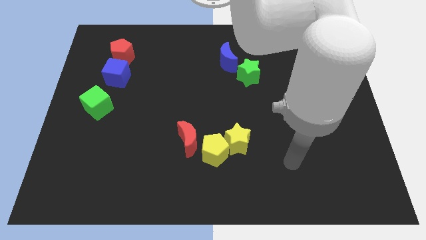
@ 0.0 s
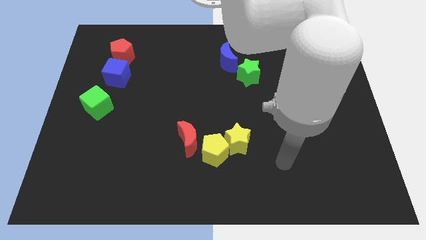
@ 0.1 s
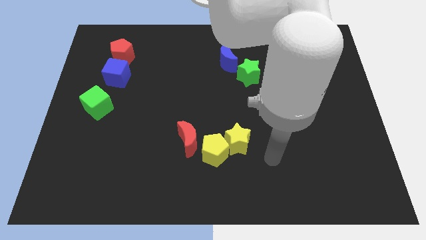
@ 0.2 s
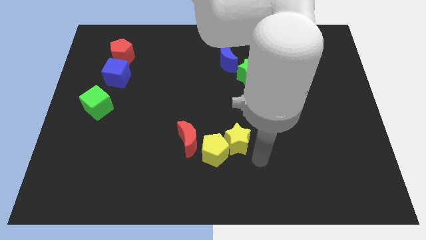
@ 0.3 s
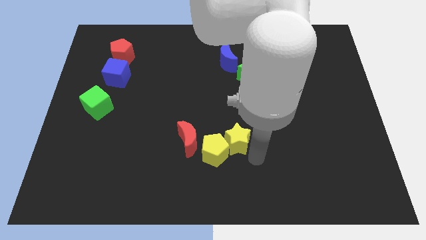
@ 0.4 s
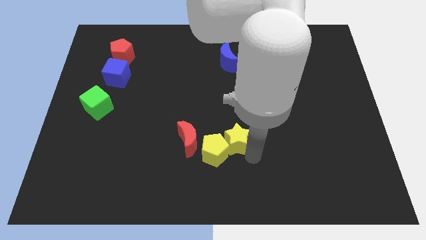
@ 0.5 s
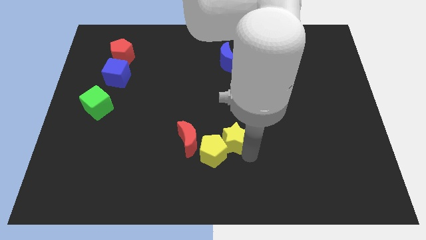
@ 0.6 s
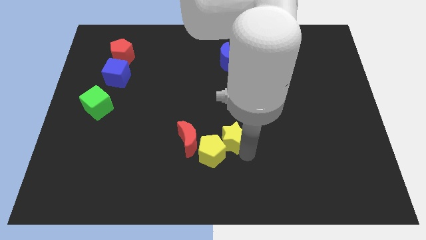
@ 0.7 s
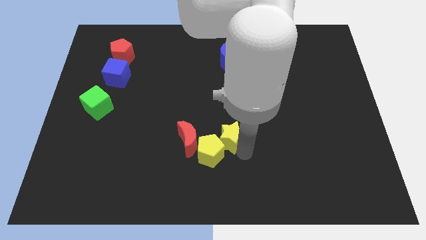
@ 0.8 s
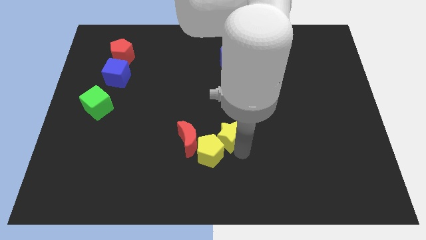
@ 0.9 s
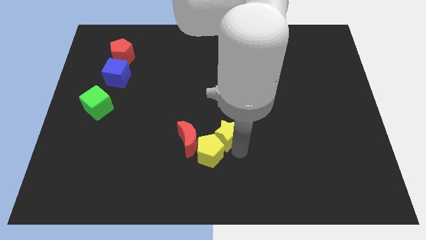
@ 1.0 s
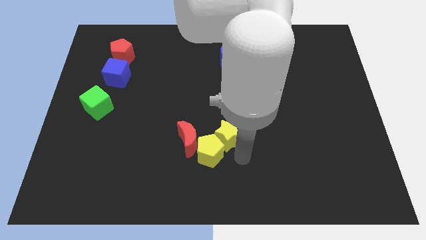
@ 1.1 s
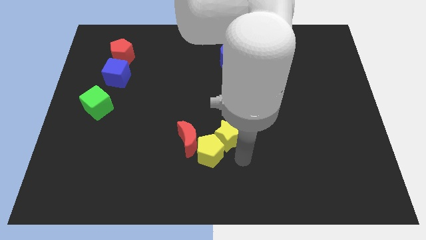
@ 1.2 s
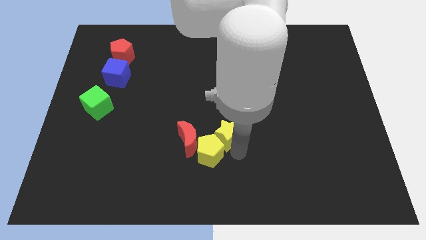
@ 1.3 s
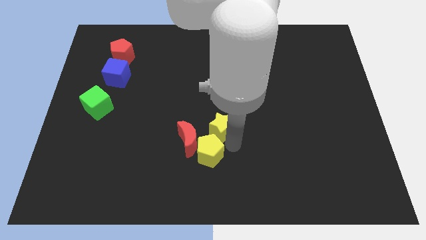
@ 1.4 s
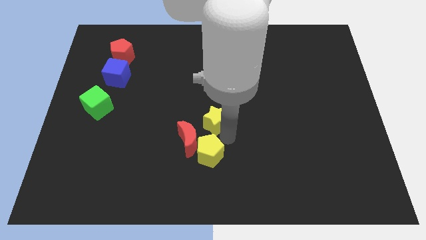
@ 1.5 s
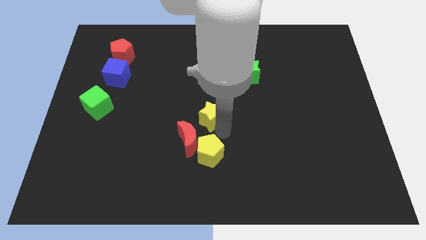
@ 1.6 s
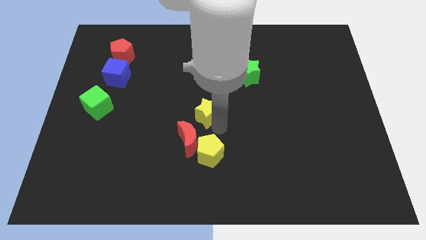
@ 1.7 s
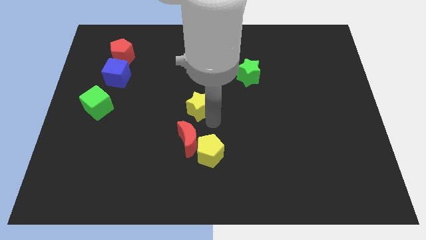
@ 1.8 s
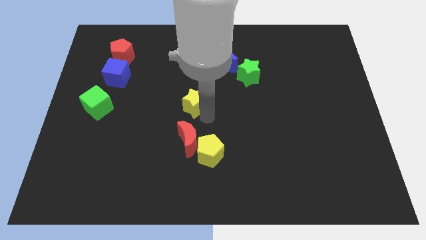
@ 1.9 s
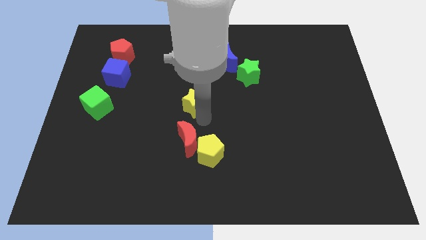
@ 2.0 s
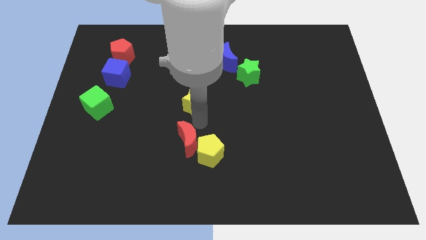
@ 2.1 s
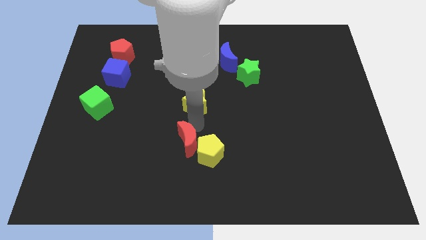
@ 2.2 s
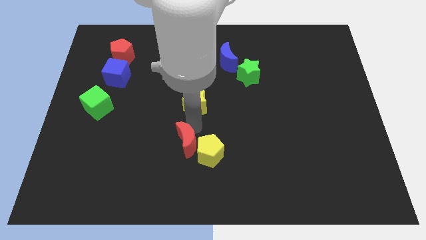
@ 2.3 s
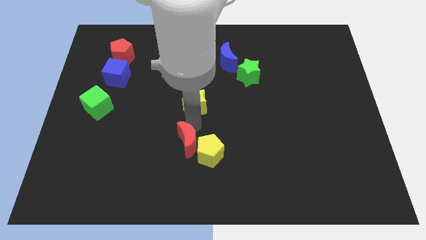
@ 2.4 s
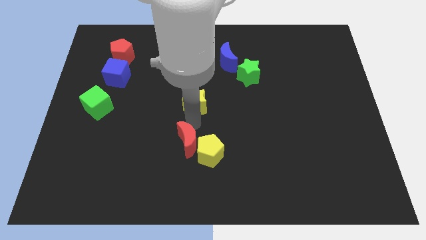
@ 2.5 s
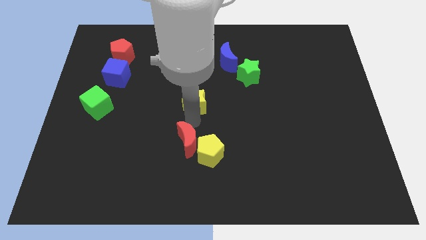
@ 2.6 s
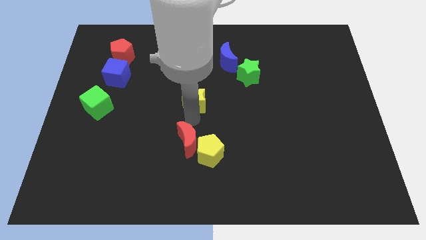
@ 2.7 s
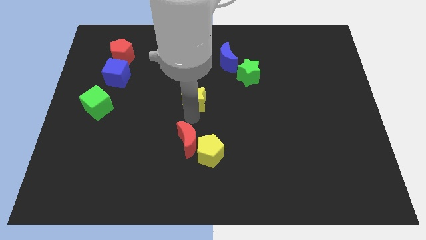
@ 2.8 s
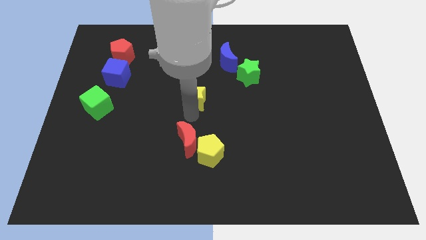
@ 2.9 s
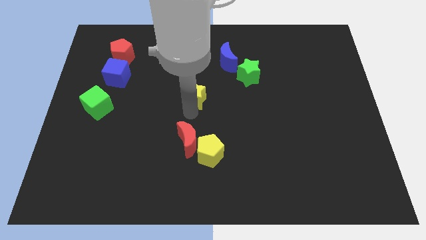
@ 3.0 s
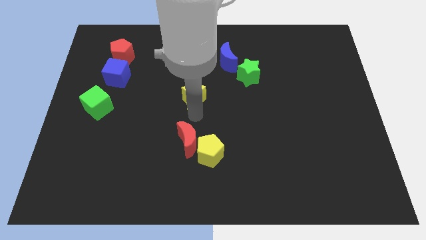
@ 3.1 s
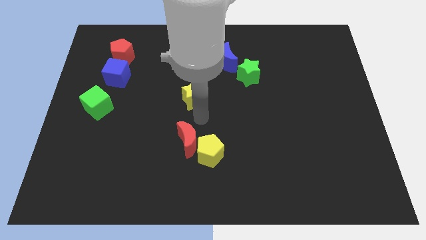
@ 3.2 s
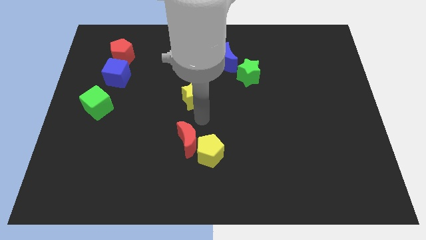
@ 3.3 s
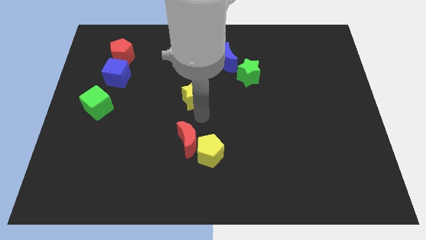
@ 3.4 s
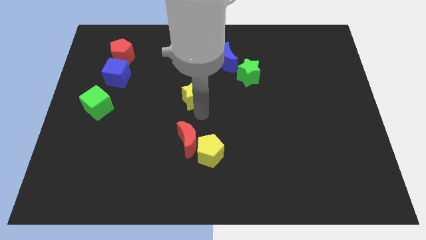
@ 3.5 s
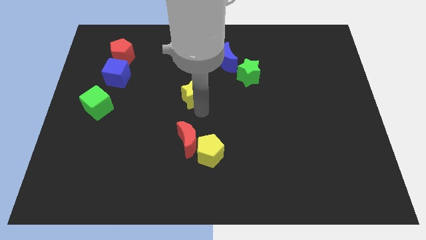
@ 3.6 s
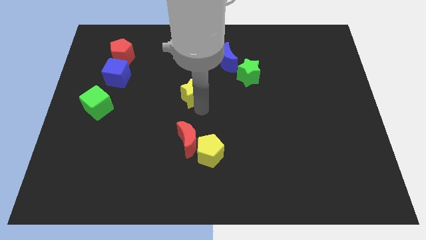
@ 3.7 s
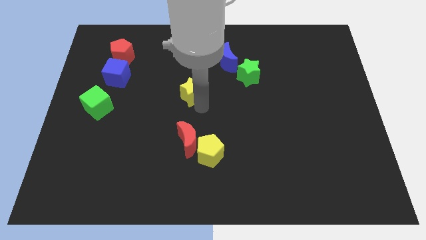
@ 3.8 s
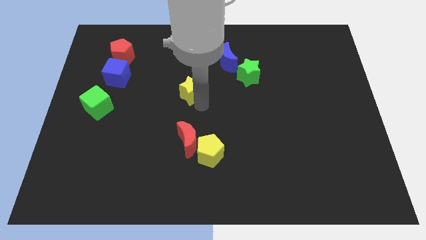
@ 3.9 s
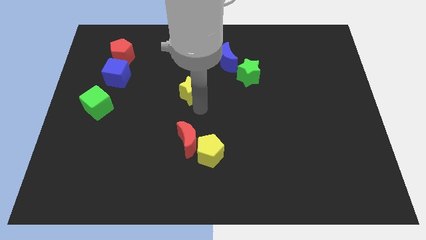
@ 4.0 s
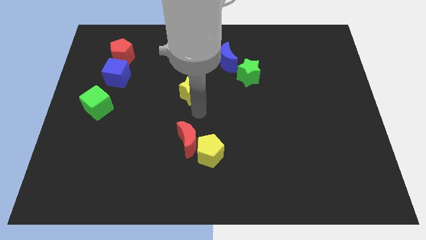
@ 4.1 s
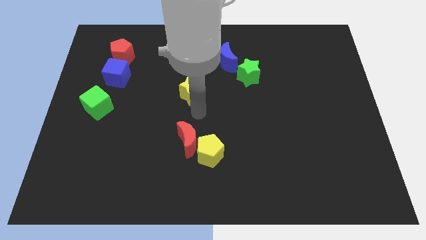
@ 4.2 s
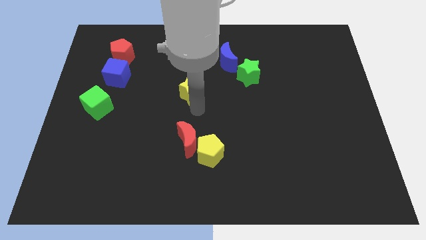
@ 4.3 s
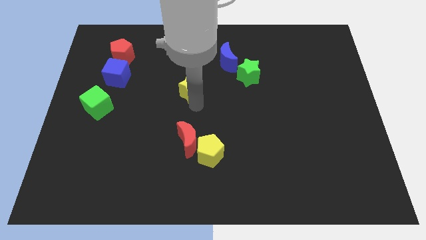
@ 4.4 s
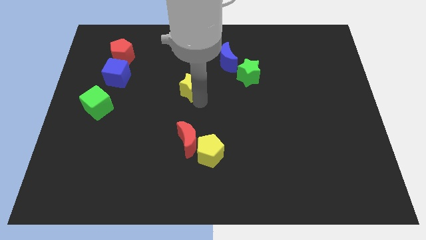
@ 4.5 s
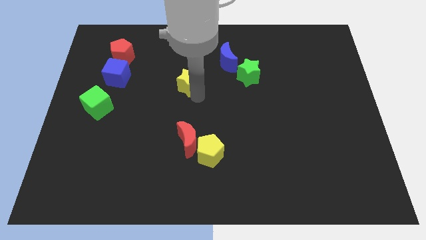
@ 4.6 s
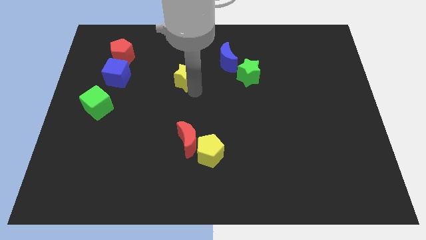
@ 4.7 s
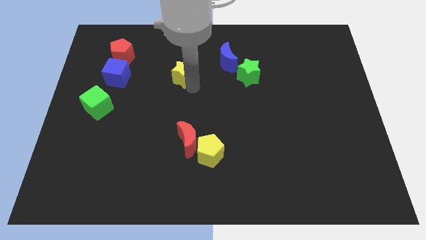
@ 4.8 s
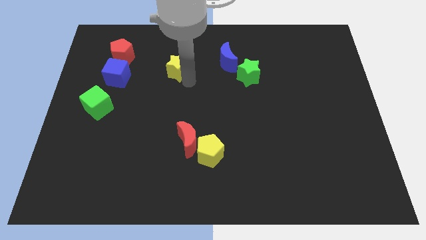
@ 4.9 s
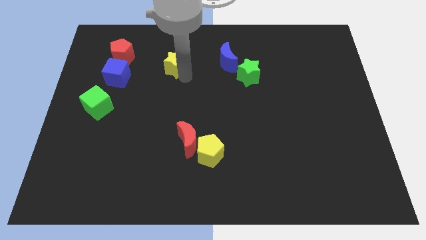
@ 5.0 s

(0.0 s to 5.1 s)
put the yellow star just right of the red pentagon

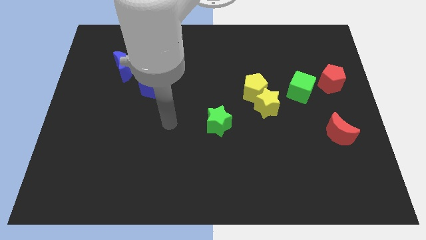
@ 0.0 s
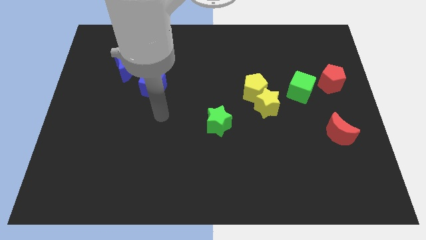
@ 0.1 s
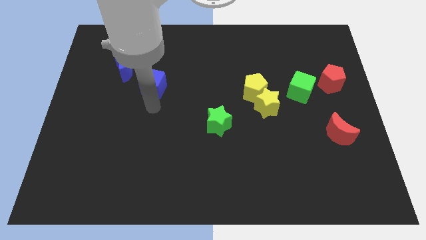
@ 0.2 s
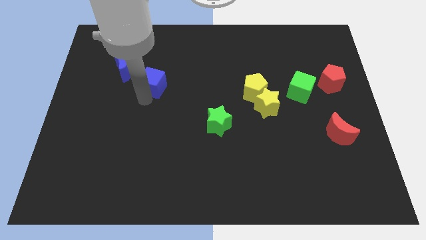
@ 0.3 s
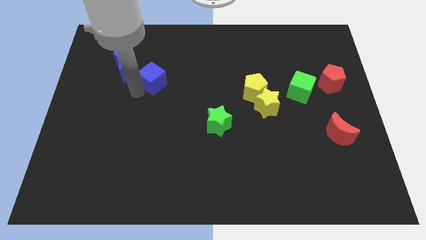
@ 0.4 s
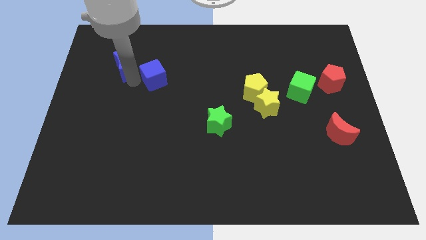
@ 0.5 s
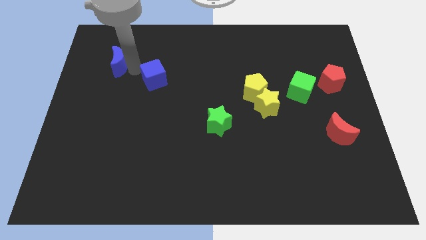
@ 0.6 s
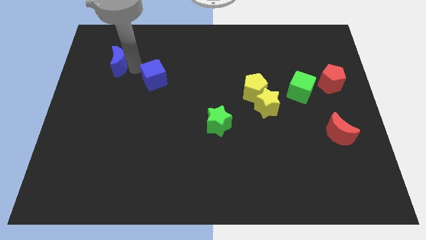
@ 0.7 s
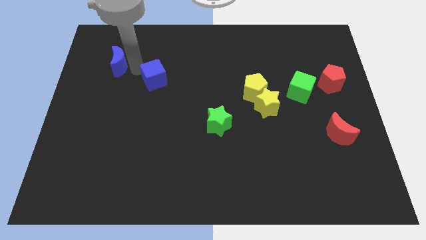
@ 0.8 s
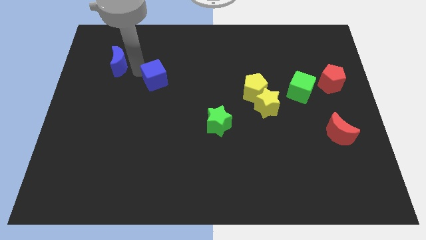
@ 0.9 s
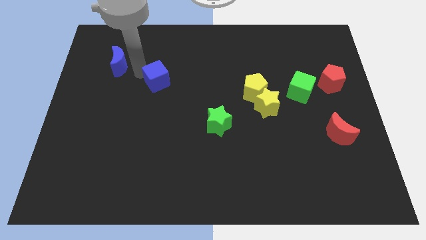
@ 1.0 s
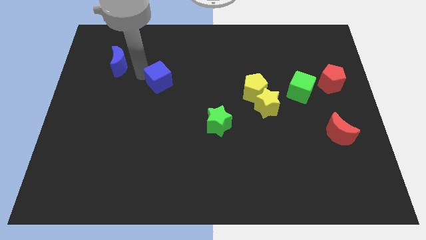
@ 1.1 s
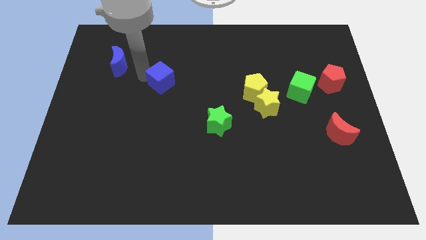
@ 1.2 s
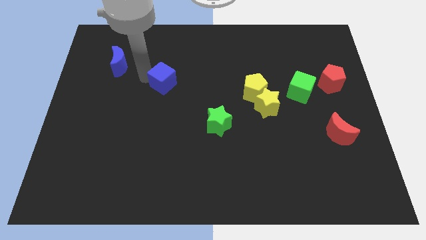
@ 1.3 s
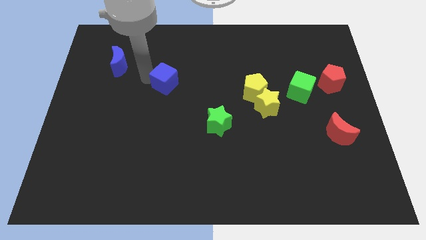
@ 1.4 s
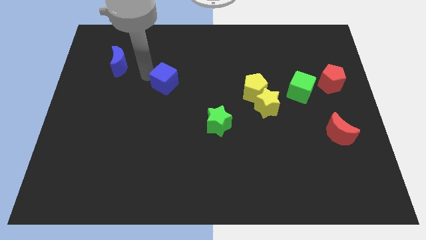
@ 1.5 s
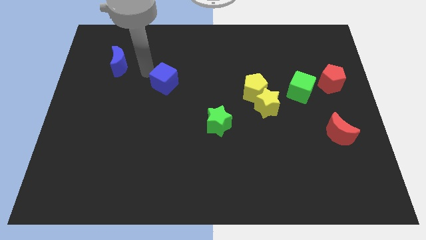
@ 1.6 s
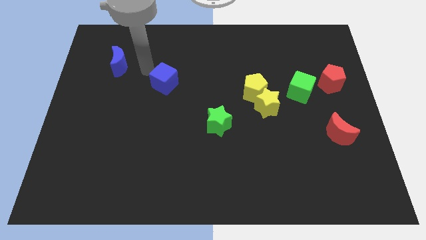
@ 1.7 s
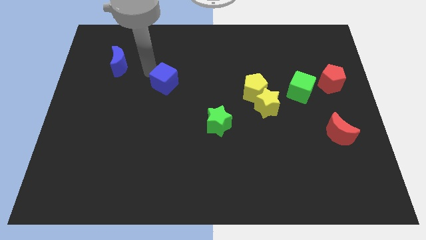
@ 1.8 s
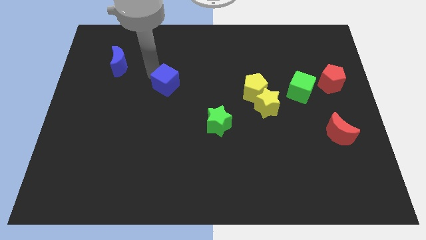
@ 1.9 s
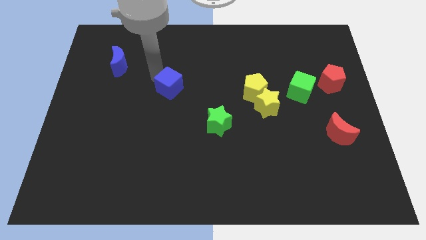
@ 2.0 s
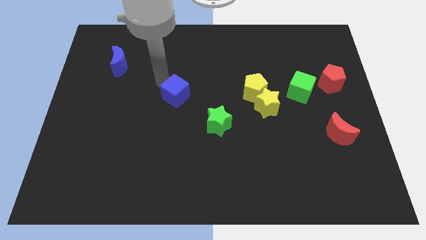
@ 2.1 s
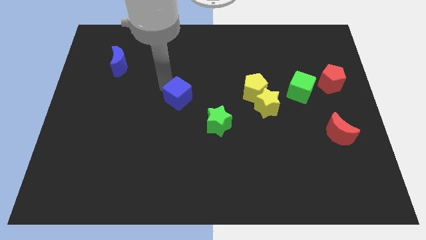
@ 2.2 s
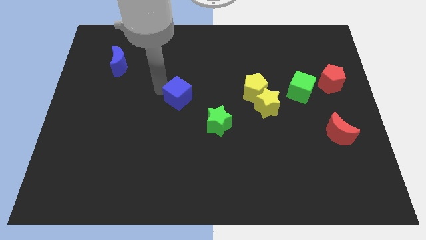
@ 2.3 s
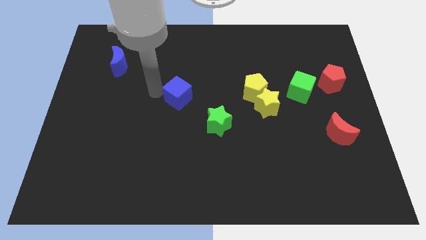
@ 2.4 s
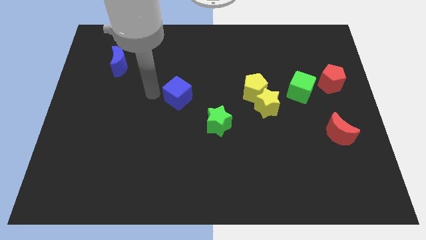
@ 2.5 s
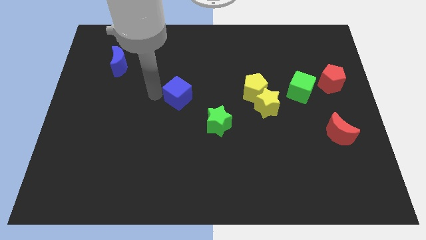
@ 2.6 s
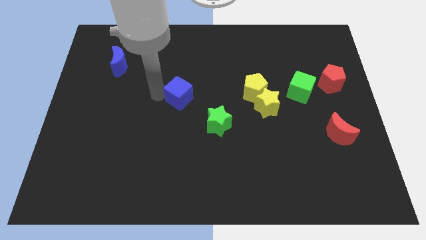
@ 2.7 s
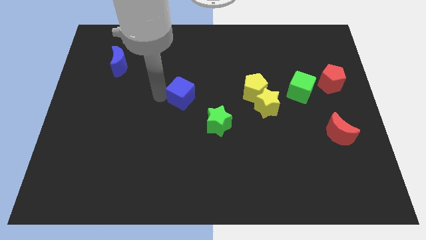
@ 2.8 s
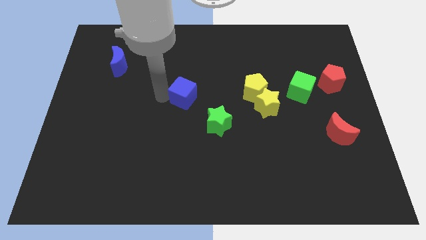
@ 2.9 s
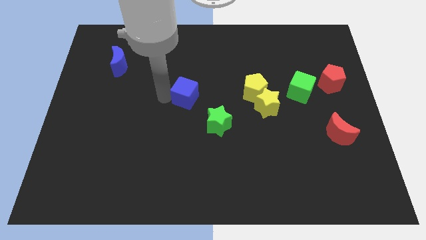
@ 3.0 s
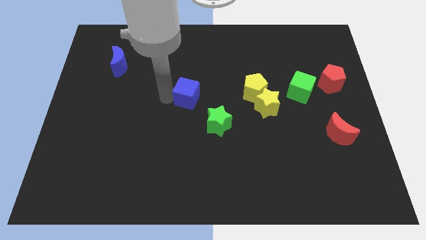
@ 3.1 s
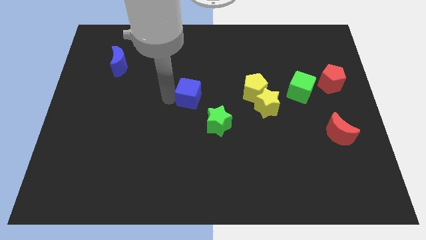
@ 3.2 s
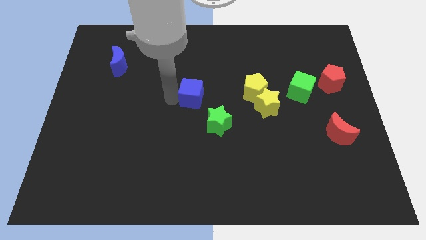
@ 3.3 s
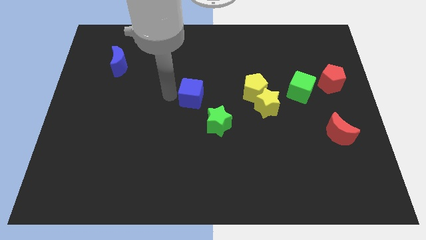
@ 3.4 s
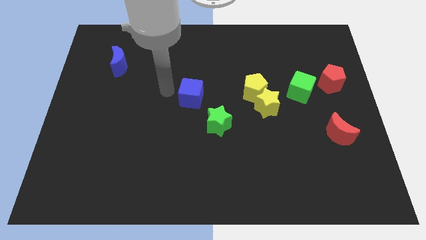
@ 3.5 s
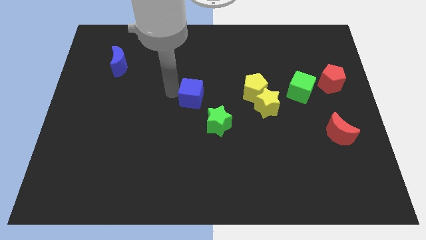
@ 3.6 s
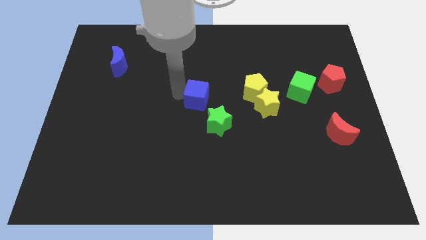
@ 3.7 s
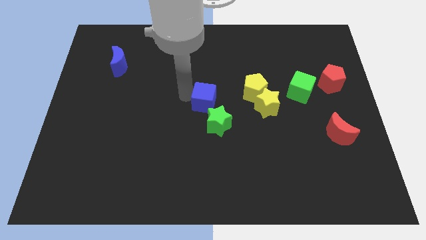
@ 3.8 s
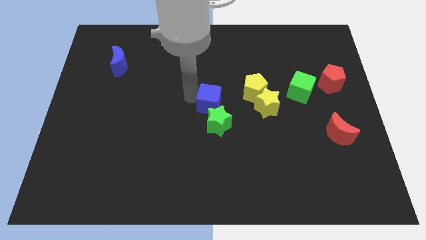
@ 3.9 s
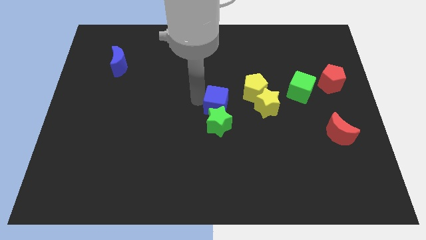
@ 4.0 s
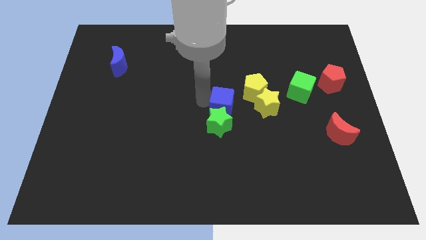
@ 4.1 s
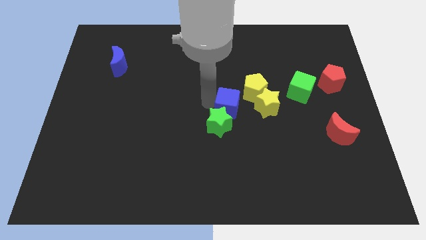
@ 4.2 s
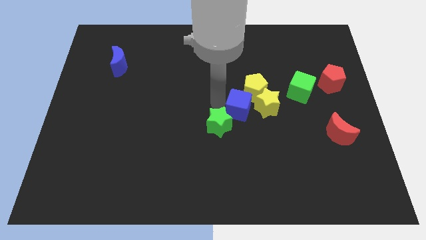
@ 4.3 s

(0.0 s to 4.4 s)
slide the blue cube to the bottom side of the yellow pentagon
